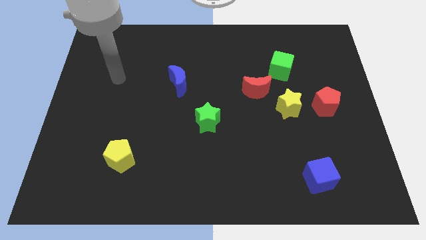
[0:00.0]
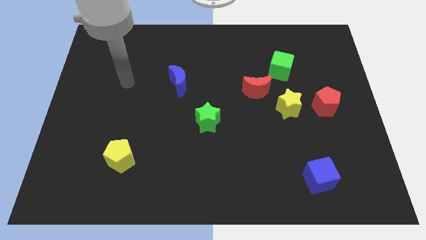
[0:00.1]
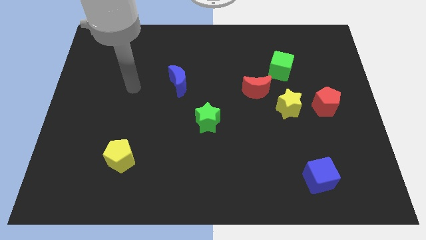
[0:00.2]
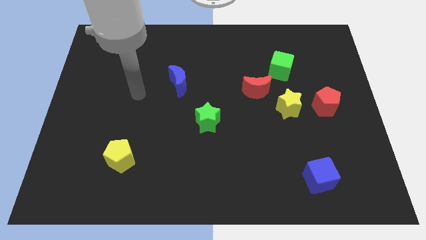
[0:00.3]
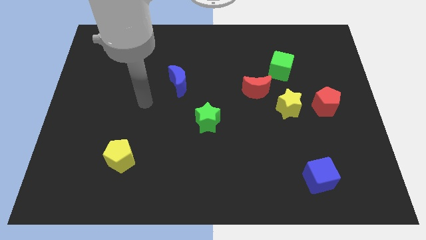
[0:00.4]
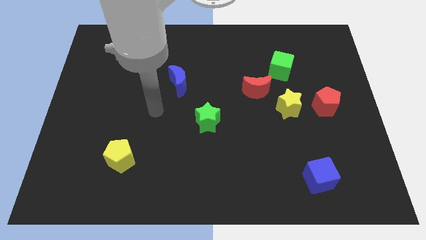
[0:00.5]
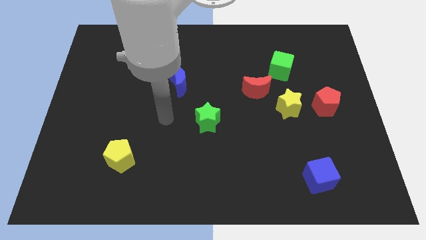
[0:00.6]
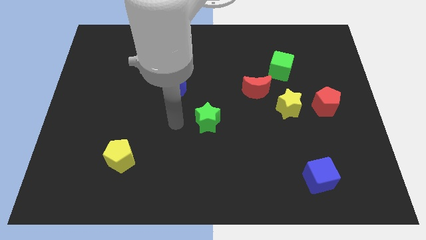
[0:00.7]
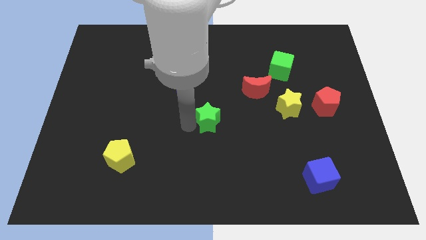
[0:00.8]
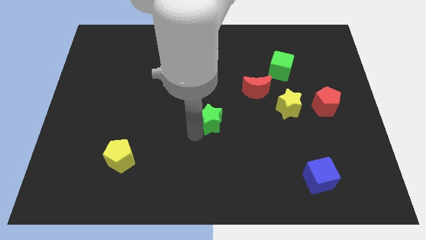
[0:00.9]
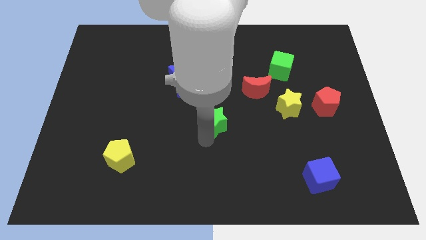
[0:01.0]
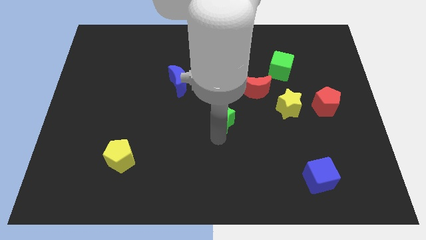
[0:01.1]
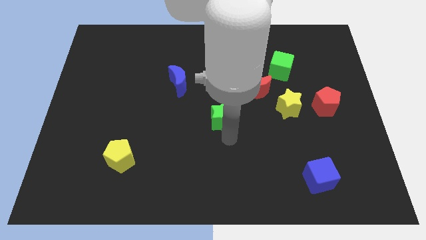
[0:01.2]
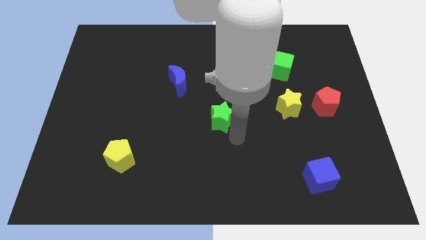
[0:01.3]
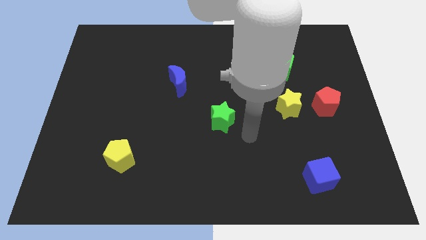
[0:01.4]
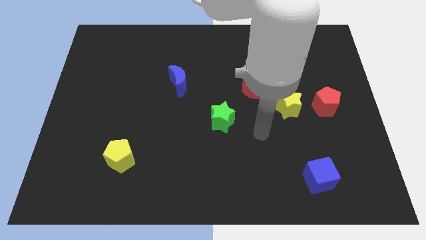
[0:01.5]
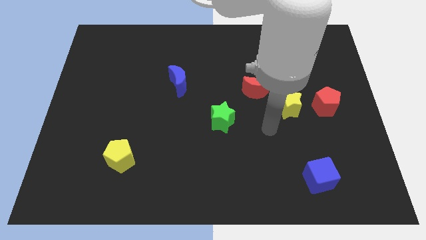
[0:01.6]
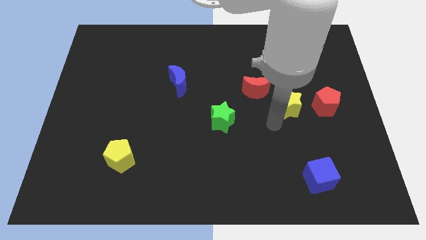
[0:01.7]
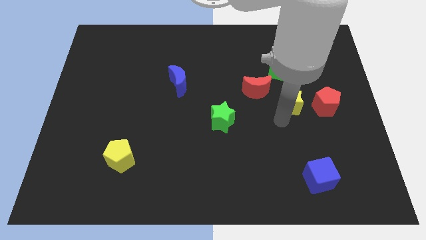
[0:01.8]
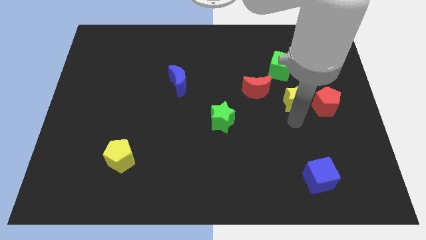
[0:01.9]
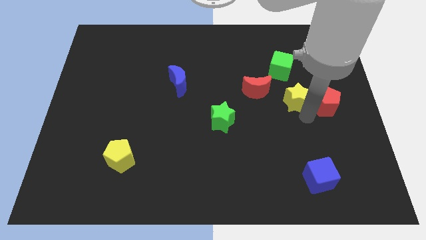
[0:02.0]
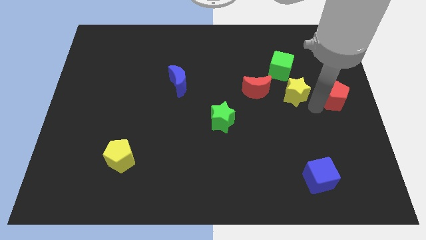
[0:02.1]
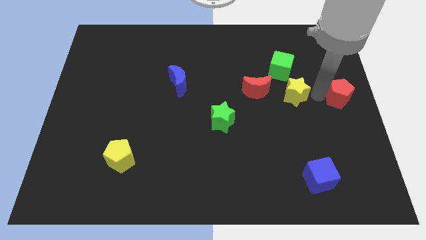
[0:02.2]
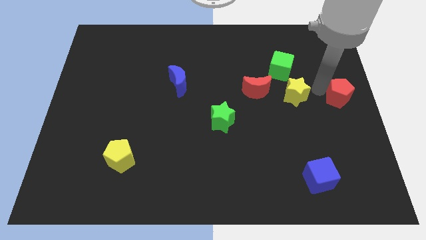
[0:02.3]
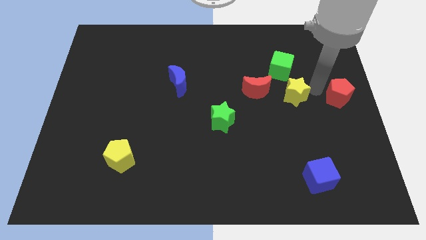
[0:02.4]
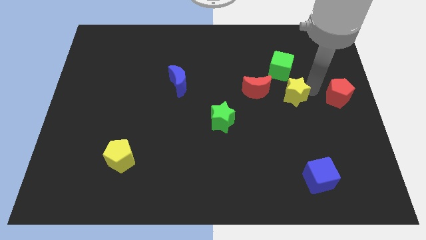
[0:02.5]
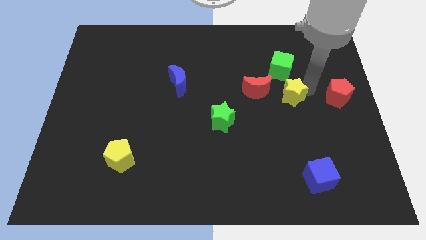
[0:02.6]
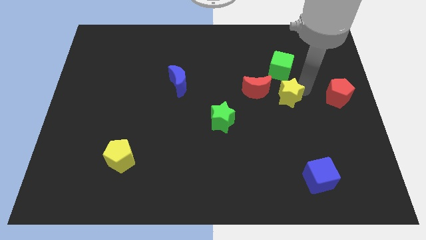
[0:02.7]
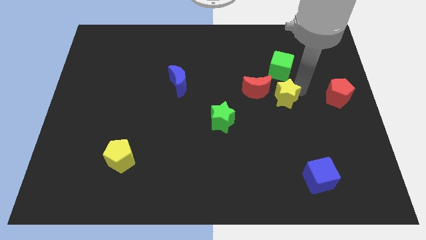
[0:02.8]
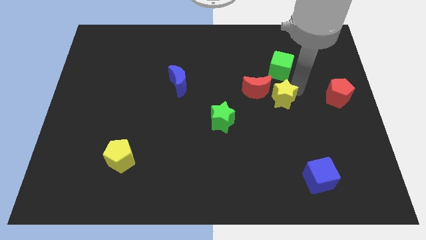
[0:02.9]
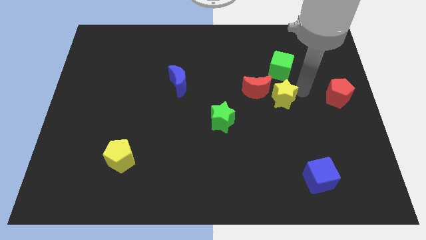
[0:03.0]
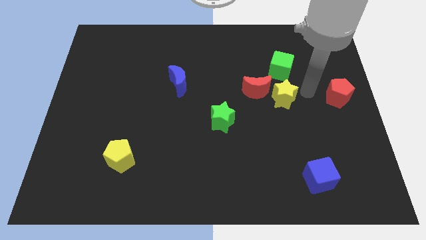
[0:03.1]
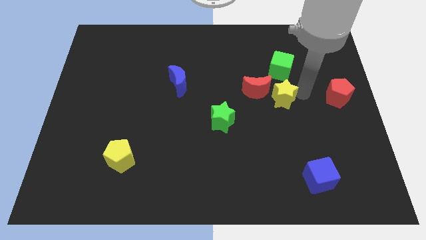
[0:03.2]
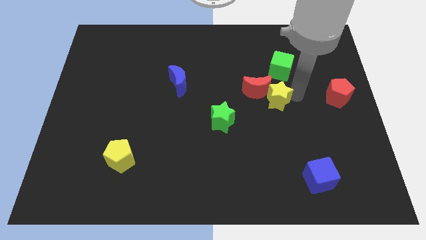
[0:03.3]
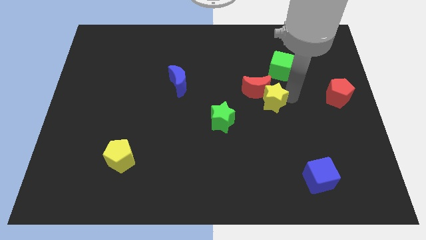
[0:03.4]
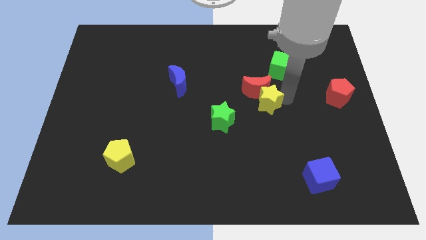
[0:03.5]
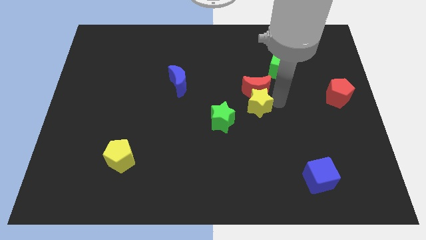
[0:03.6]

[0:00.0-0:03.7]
slide the yellow star somewhat left

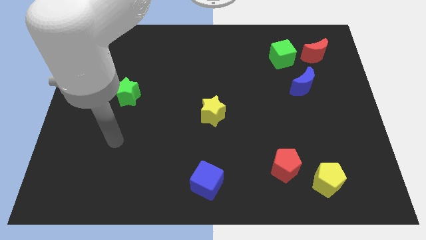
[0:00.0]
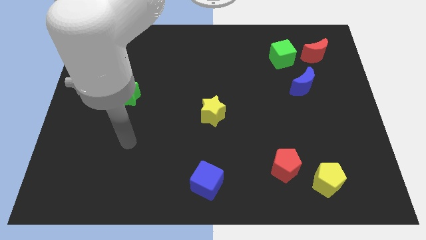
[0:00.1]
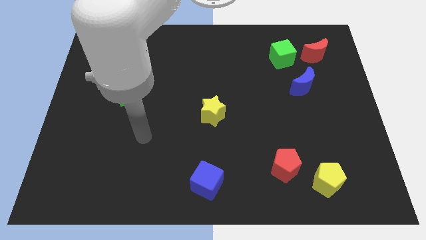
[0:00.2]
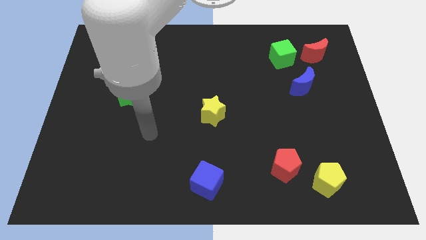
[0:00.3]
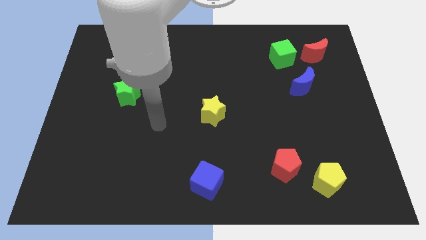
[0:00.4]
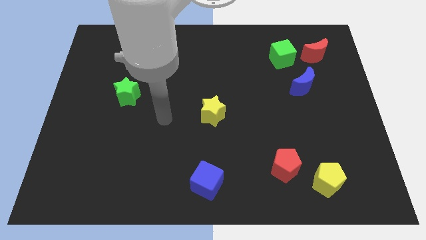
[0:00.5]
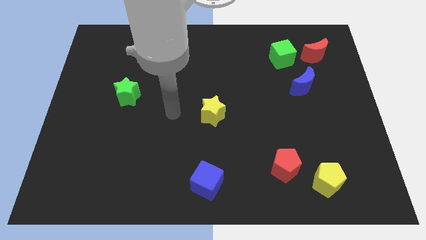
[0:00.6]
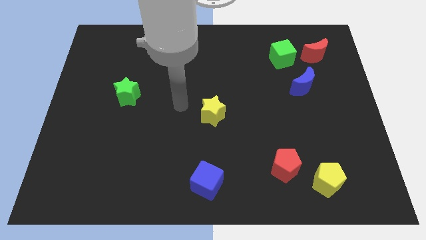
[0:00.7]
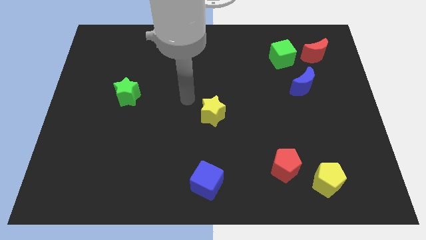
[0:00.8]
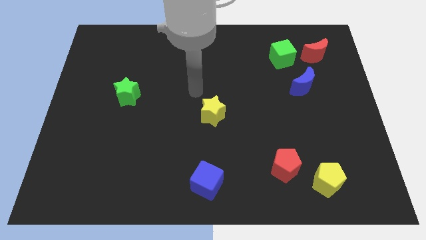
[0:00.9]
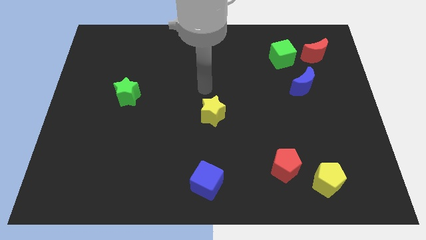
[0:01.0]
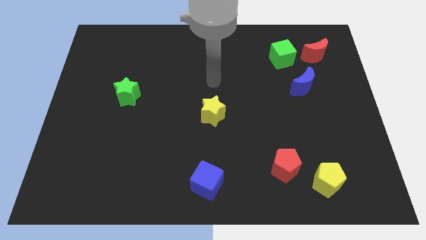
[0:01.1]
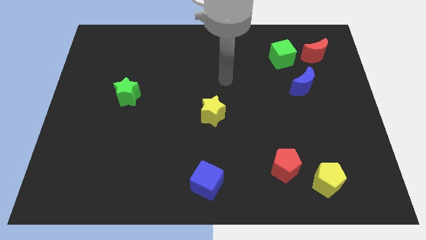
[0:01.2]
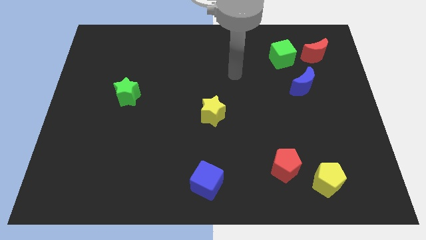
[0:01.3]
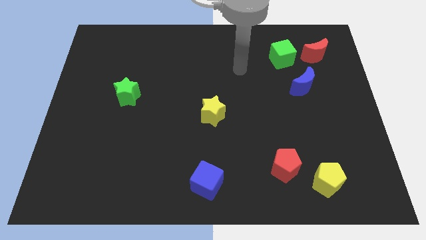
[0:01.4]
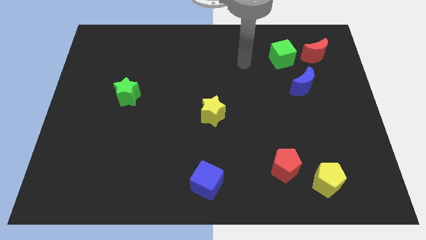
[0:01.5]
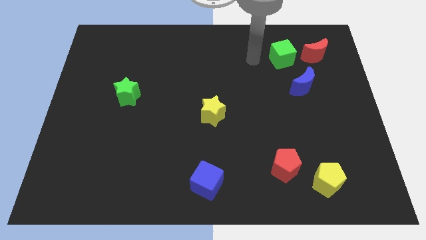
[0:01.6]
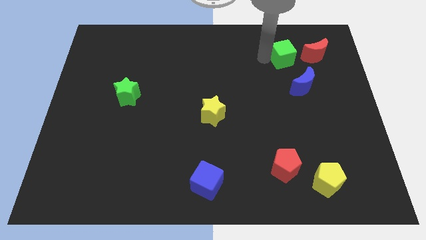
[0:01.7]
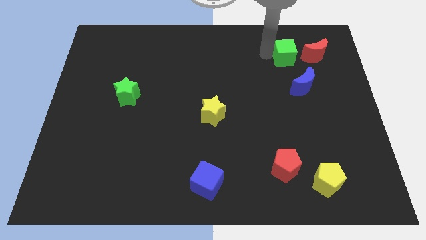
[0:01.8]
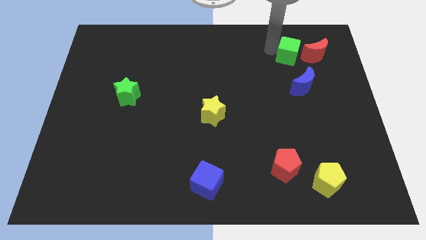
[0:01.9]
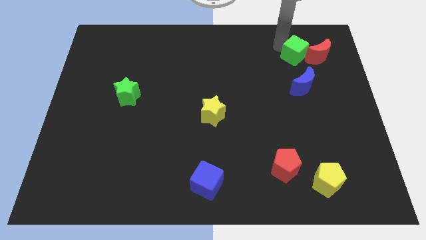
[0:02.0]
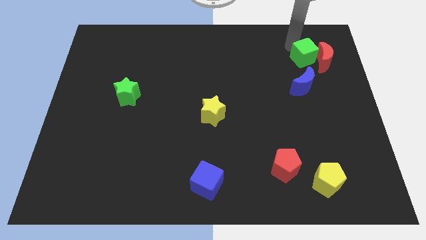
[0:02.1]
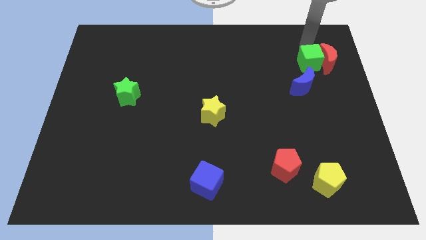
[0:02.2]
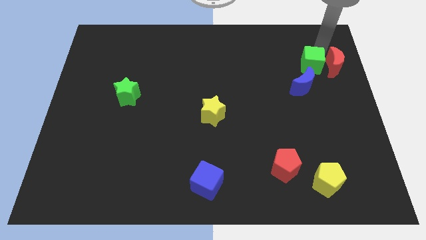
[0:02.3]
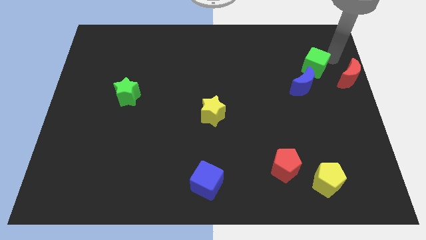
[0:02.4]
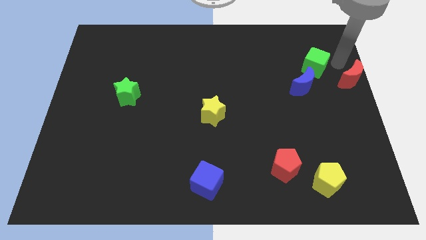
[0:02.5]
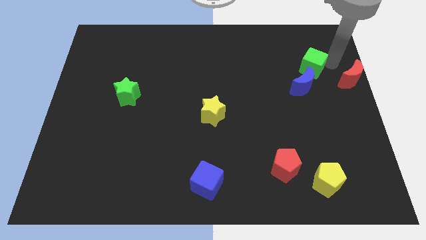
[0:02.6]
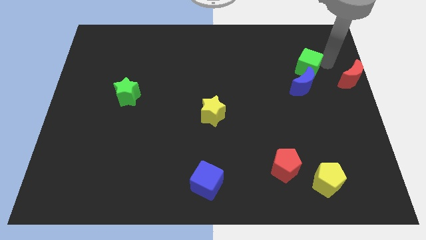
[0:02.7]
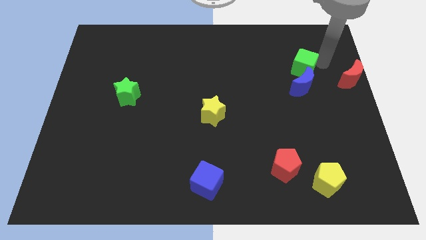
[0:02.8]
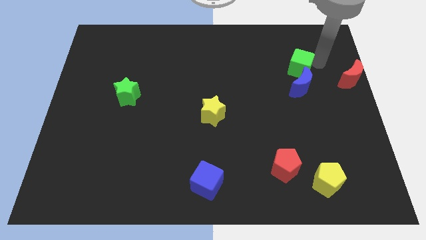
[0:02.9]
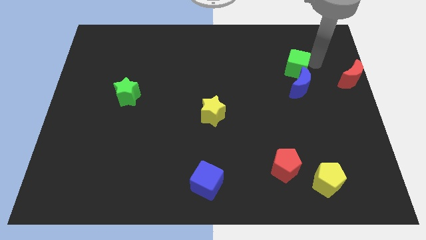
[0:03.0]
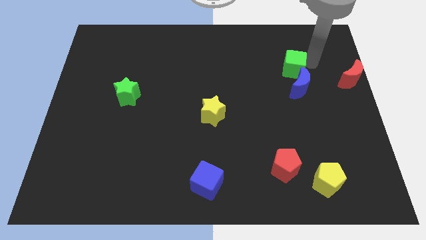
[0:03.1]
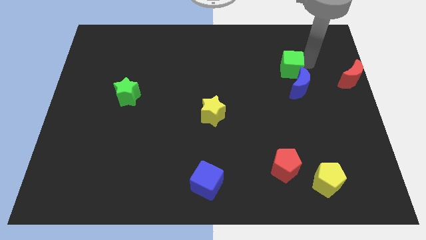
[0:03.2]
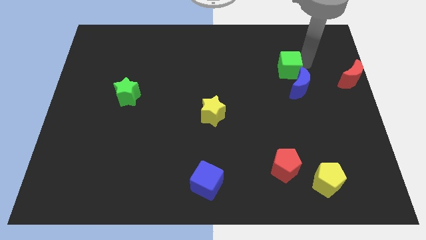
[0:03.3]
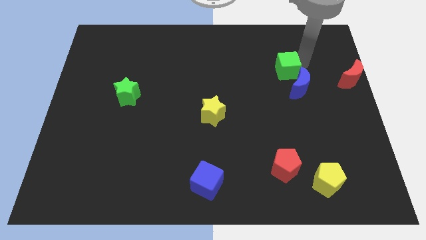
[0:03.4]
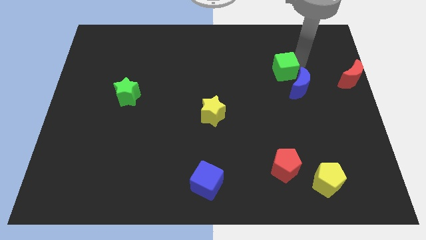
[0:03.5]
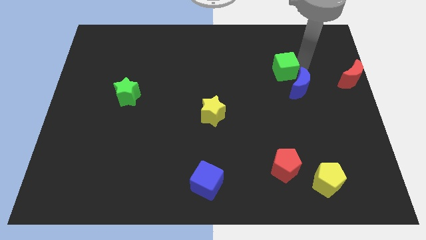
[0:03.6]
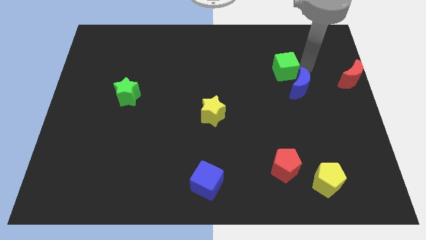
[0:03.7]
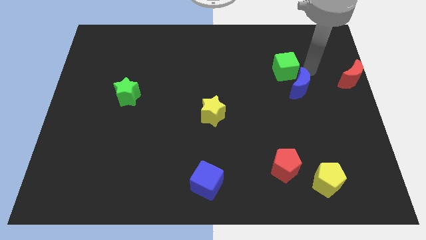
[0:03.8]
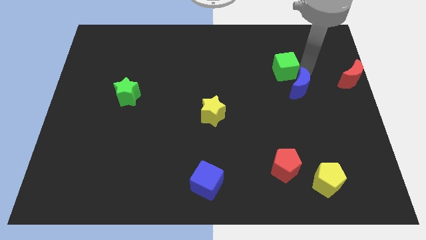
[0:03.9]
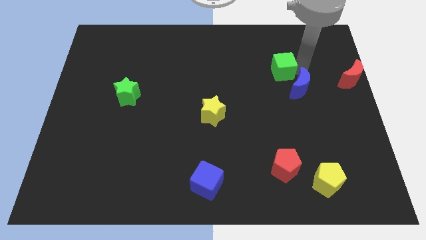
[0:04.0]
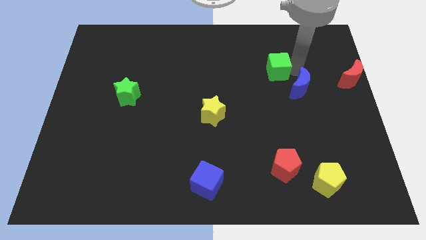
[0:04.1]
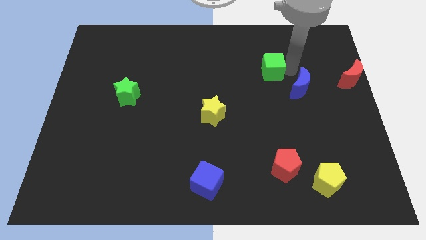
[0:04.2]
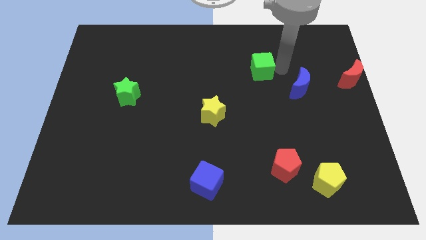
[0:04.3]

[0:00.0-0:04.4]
push the green cube a little bit downwards and left diagonally

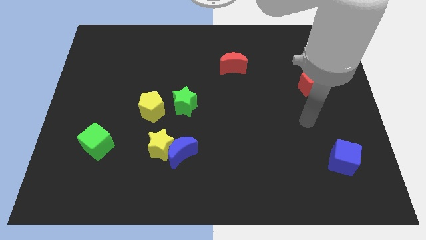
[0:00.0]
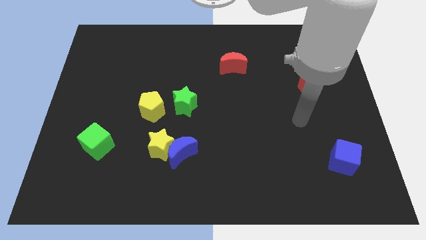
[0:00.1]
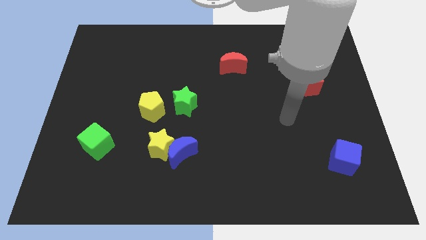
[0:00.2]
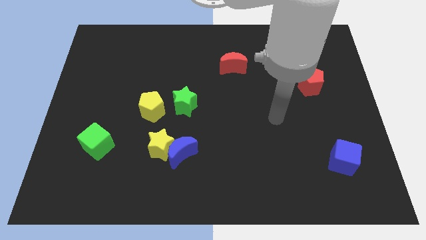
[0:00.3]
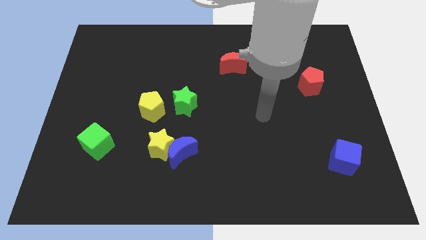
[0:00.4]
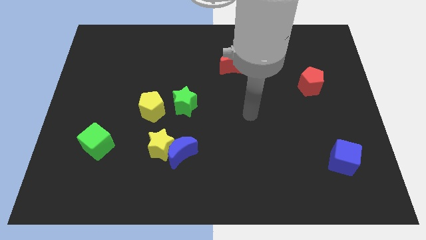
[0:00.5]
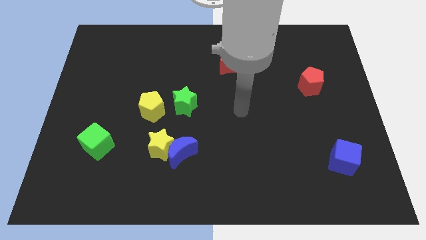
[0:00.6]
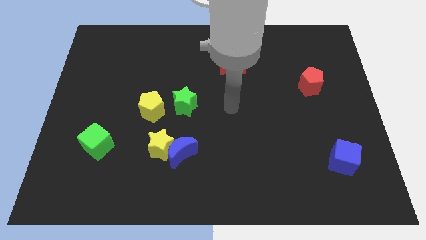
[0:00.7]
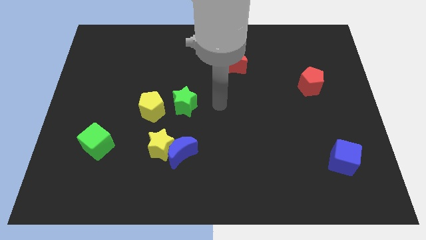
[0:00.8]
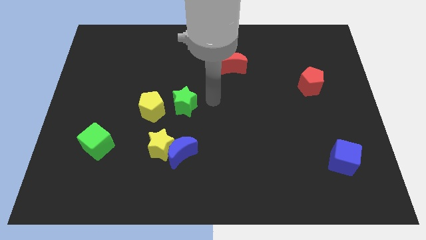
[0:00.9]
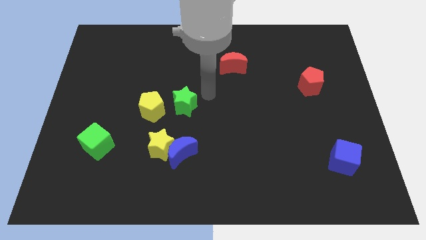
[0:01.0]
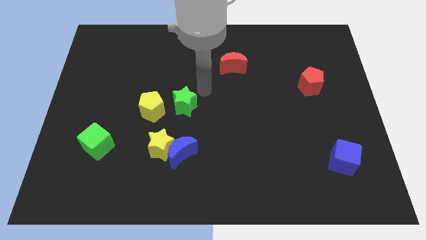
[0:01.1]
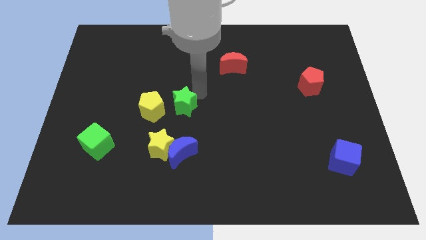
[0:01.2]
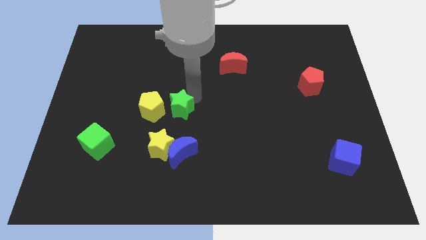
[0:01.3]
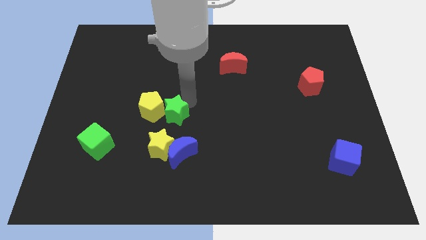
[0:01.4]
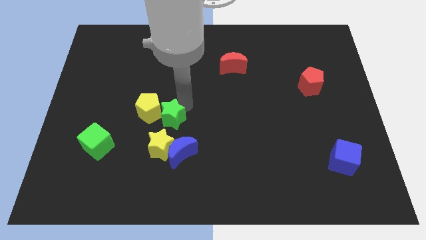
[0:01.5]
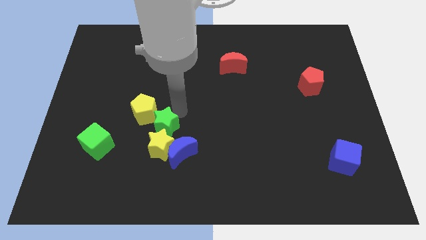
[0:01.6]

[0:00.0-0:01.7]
slightly slide the green star down and to the left
